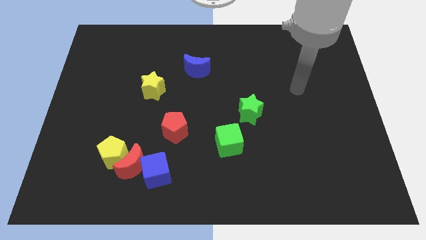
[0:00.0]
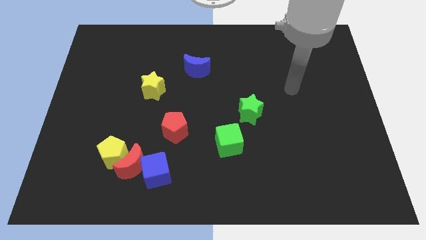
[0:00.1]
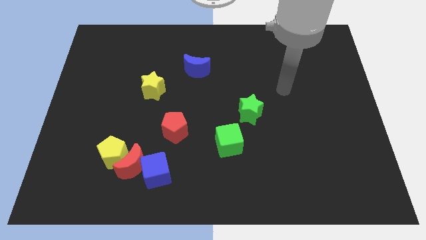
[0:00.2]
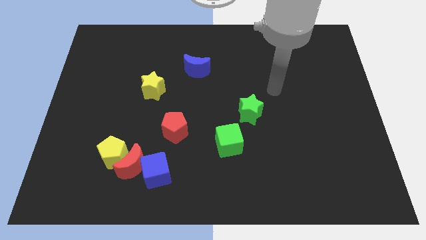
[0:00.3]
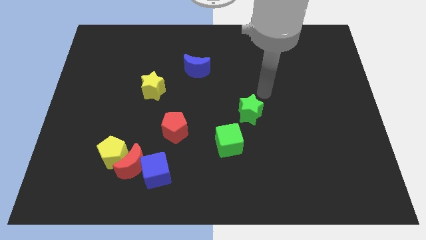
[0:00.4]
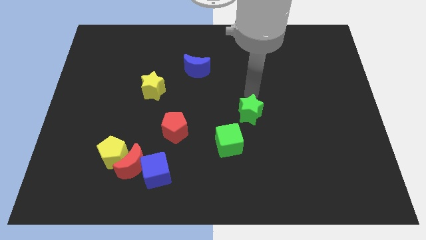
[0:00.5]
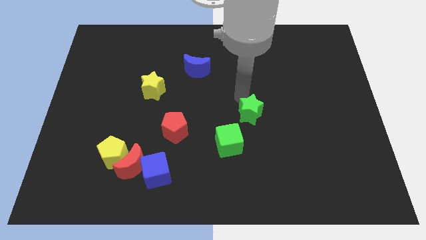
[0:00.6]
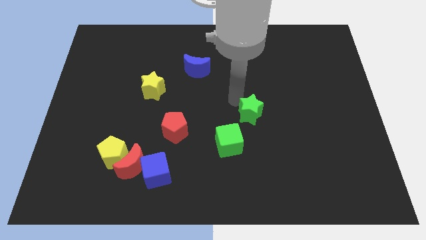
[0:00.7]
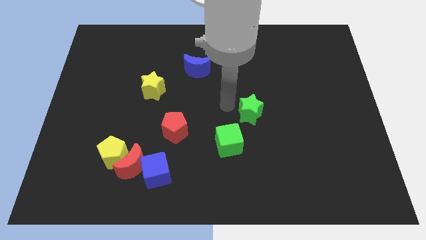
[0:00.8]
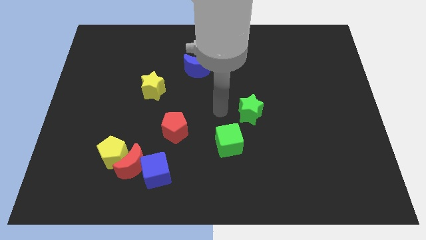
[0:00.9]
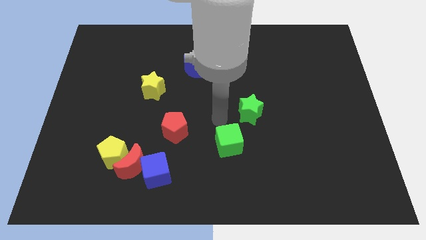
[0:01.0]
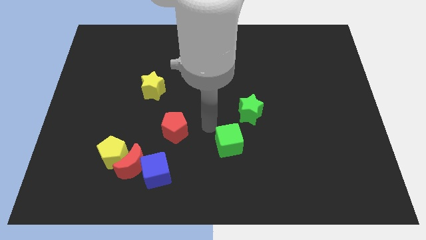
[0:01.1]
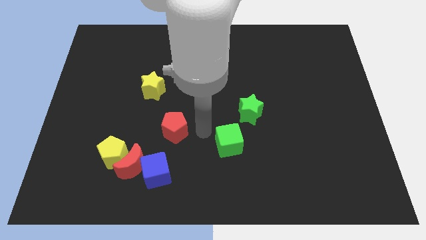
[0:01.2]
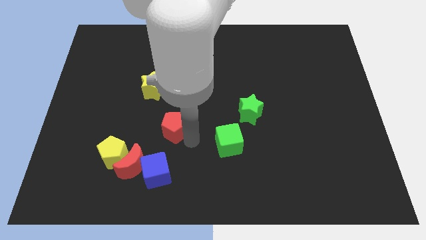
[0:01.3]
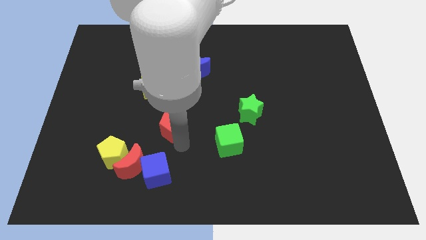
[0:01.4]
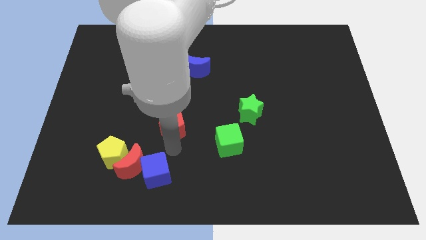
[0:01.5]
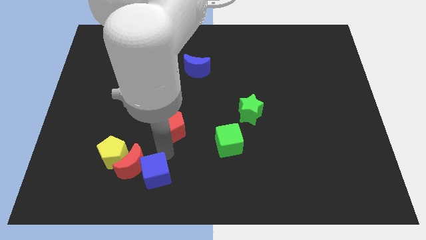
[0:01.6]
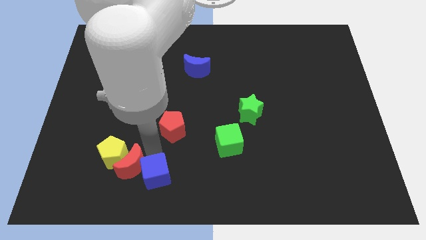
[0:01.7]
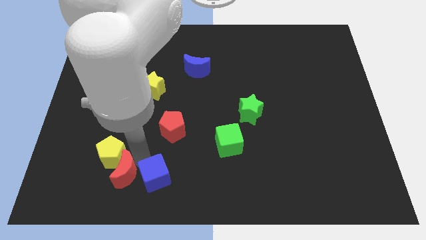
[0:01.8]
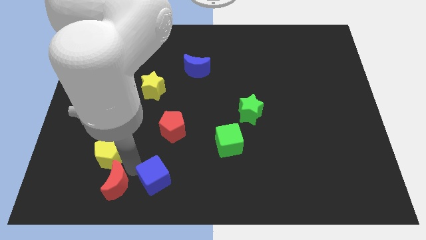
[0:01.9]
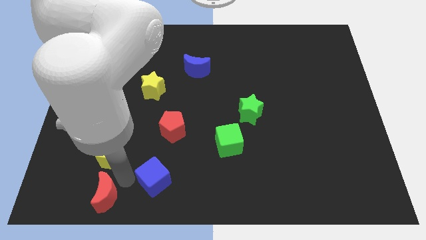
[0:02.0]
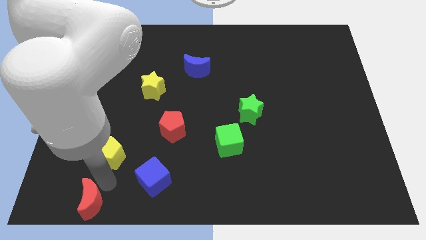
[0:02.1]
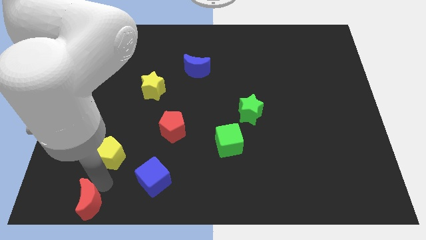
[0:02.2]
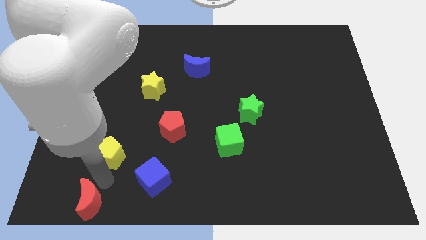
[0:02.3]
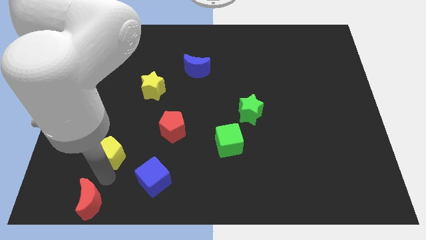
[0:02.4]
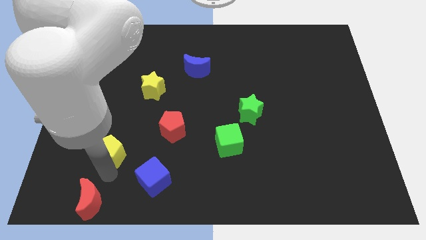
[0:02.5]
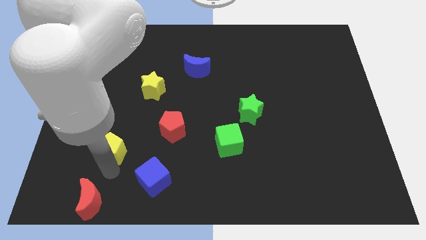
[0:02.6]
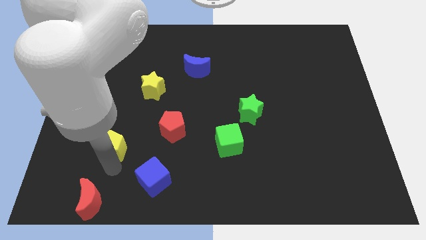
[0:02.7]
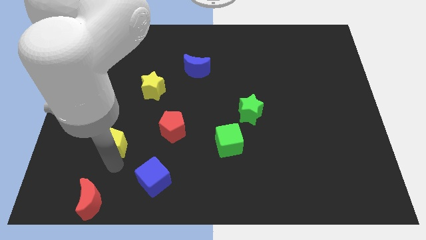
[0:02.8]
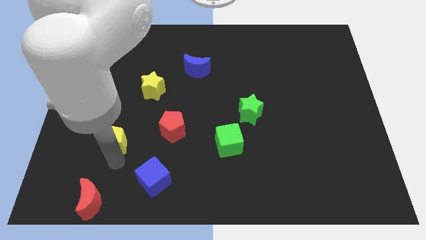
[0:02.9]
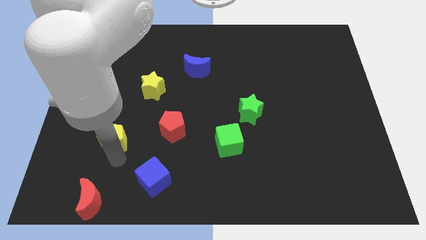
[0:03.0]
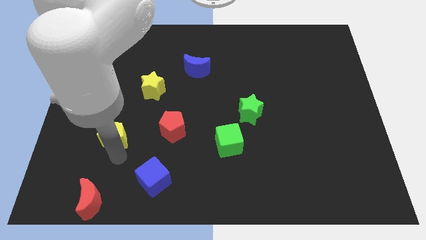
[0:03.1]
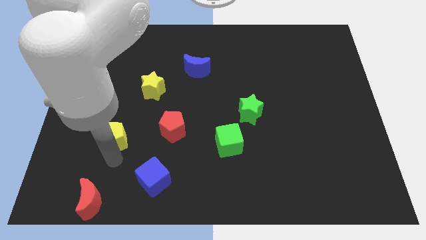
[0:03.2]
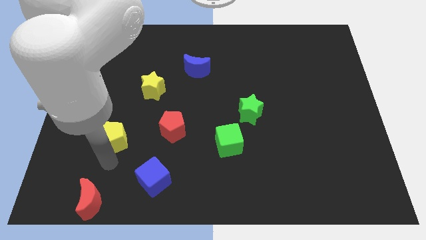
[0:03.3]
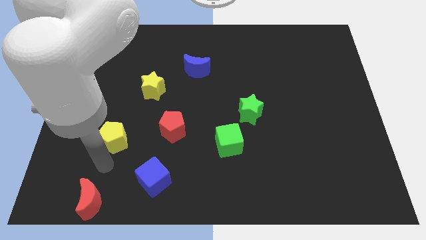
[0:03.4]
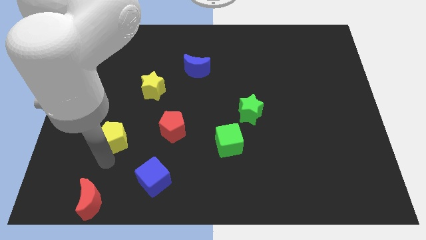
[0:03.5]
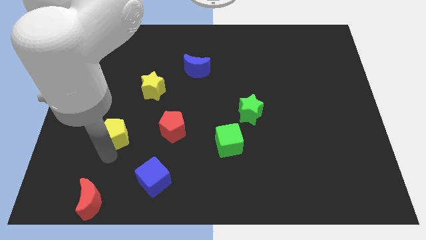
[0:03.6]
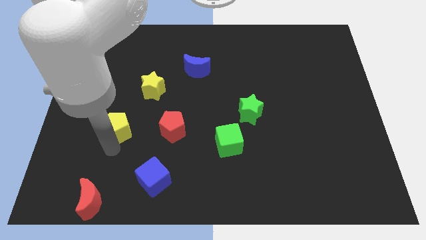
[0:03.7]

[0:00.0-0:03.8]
move the yellow pentagon a little up

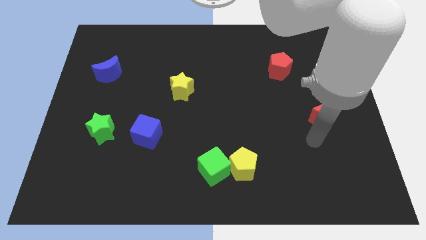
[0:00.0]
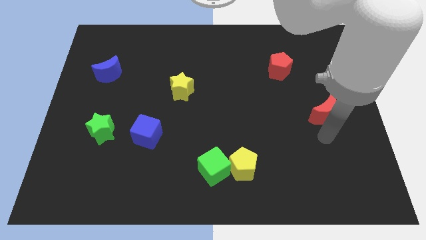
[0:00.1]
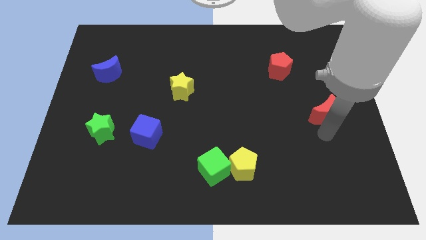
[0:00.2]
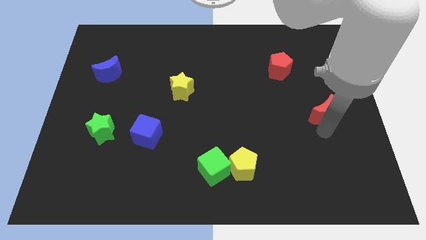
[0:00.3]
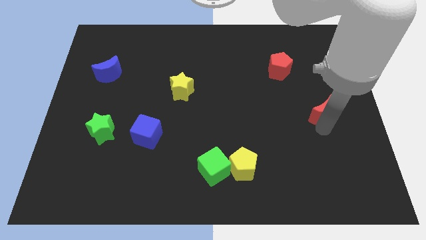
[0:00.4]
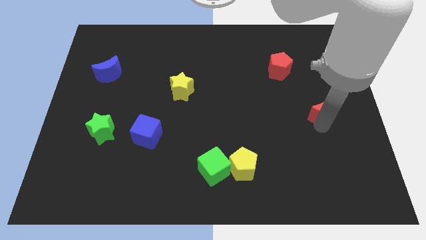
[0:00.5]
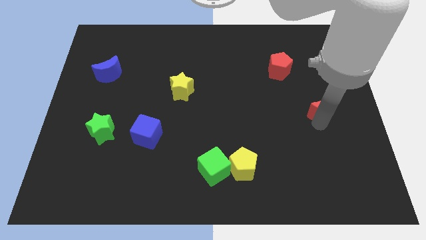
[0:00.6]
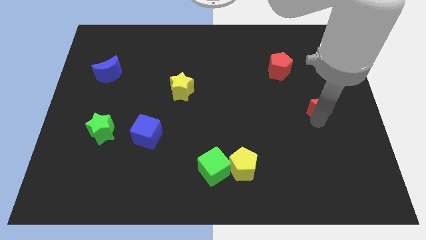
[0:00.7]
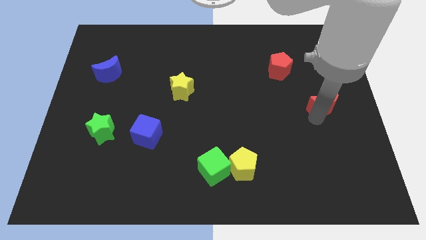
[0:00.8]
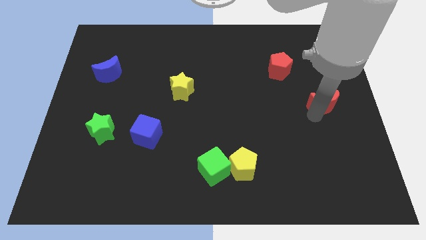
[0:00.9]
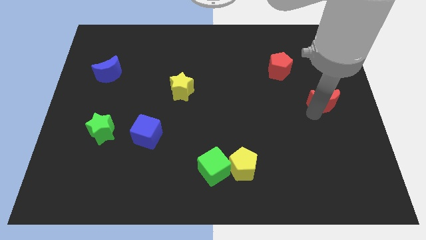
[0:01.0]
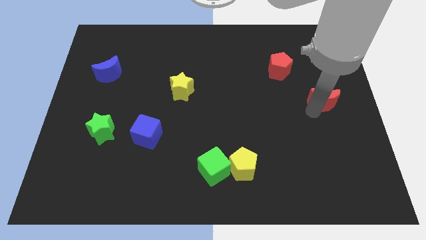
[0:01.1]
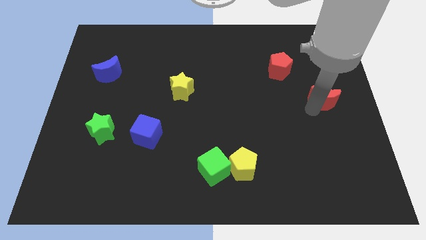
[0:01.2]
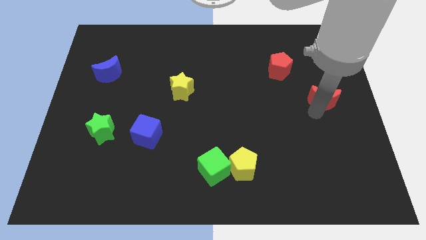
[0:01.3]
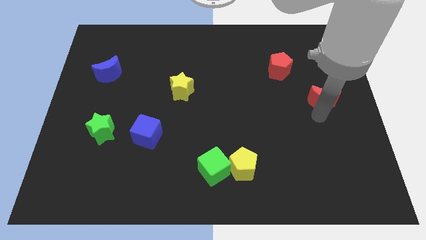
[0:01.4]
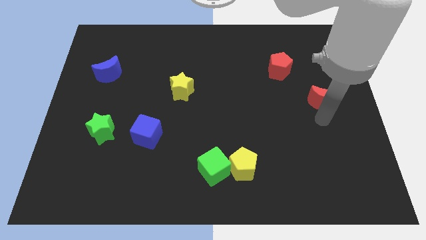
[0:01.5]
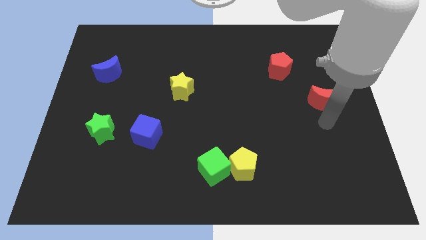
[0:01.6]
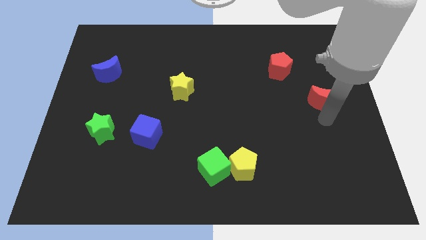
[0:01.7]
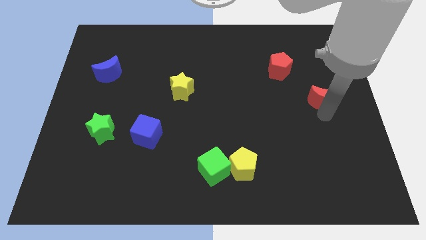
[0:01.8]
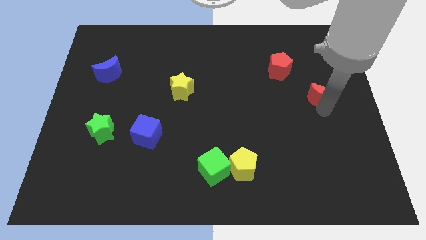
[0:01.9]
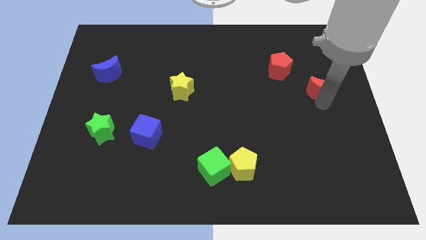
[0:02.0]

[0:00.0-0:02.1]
slightly slide the red moon up

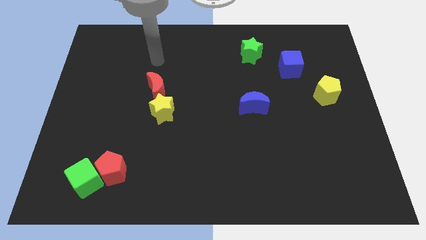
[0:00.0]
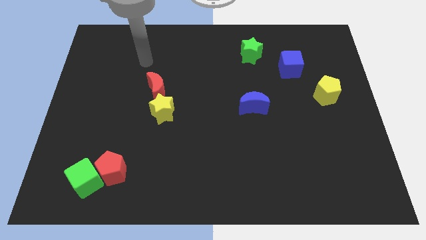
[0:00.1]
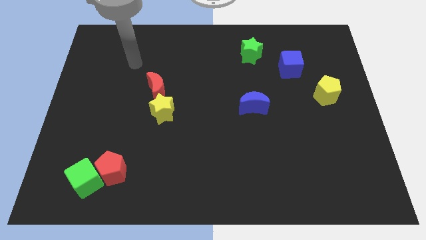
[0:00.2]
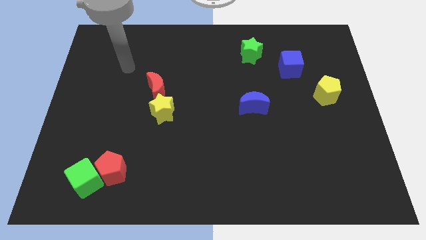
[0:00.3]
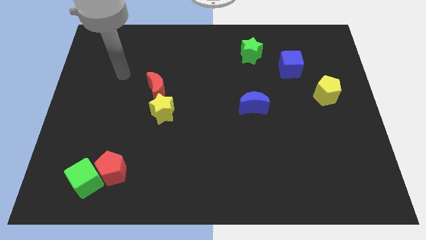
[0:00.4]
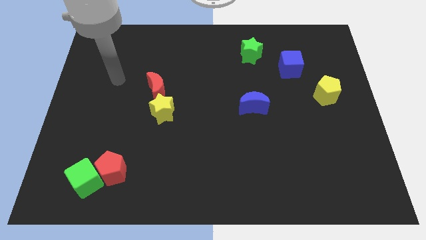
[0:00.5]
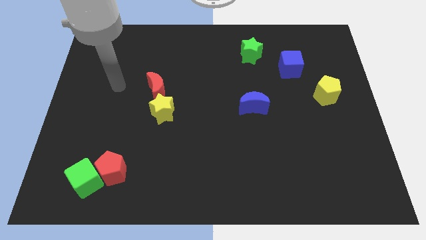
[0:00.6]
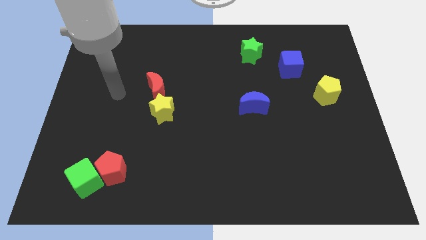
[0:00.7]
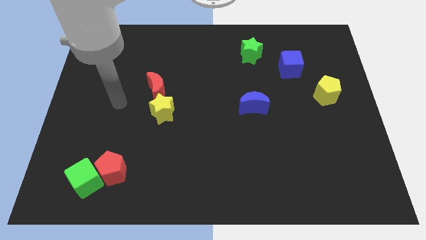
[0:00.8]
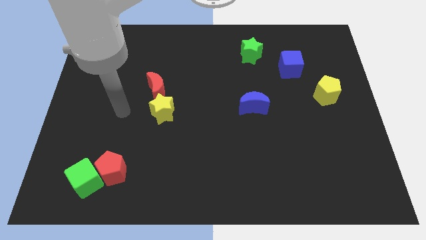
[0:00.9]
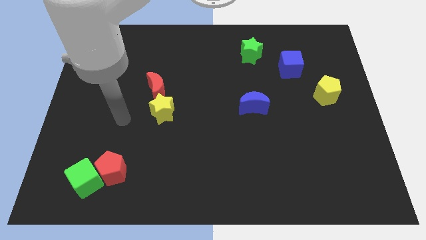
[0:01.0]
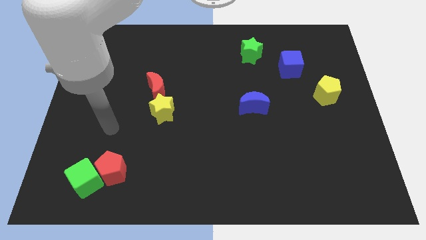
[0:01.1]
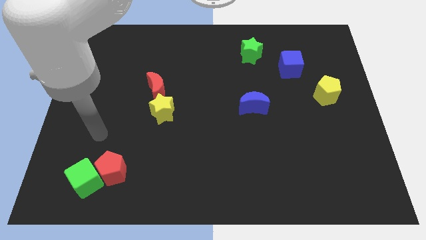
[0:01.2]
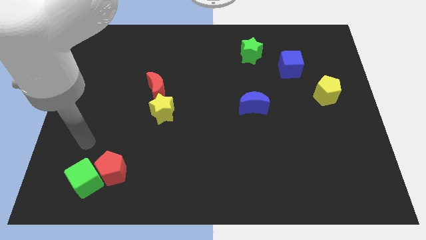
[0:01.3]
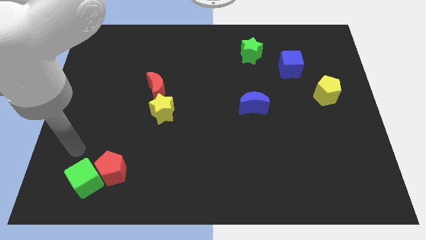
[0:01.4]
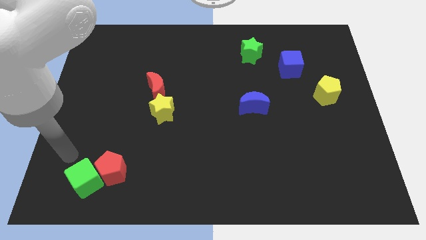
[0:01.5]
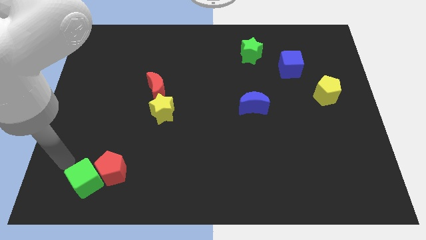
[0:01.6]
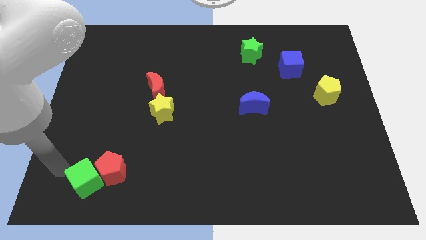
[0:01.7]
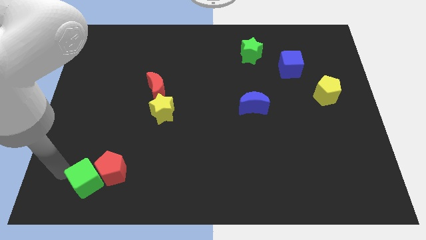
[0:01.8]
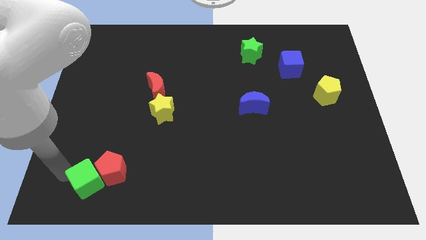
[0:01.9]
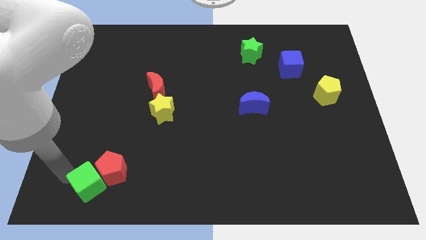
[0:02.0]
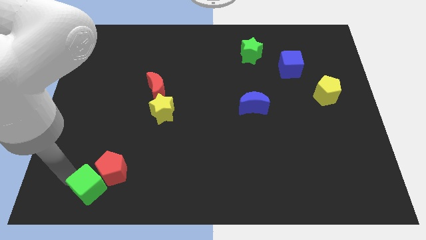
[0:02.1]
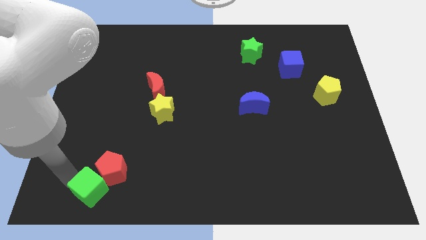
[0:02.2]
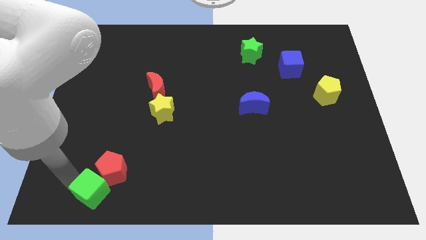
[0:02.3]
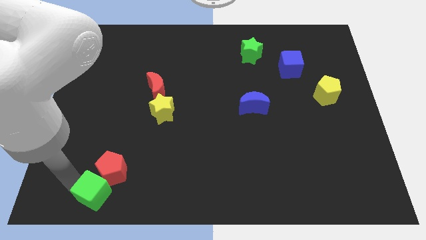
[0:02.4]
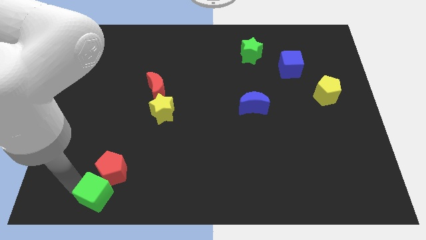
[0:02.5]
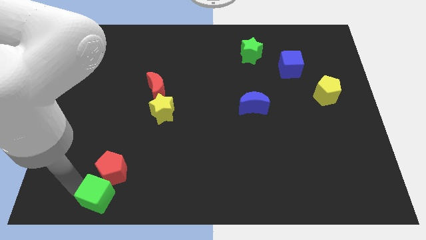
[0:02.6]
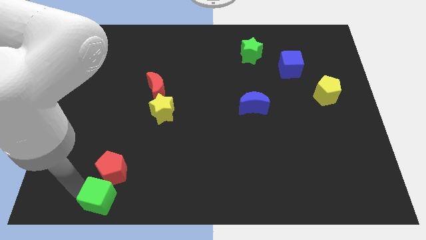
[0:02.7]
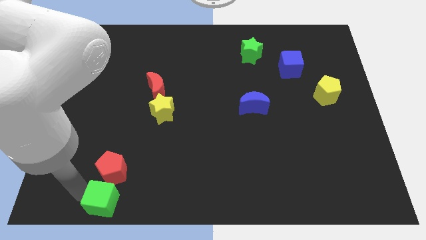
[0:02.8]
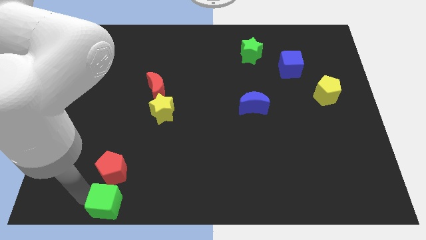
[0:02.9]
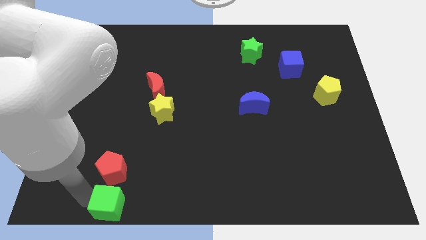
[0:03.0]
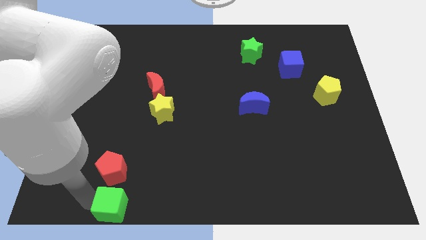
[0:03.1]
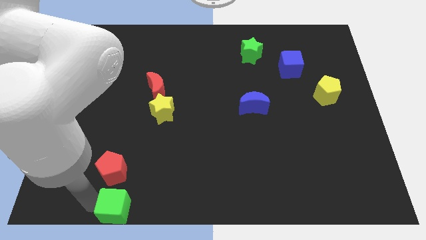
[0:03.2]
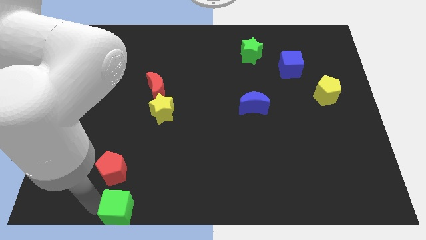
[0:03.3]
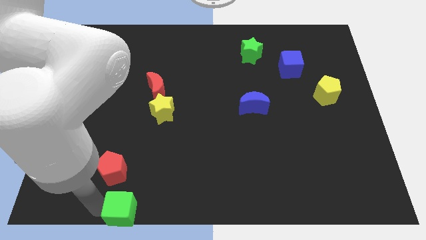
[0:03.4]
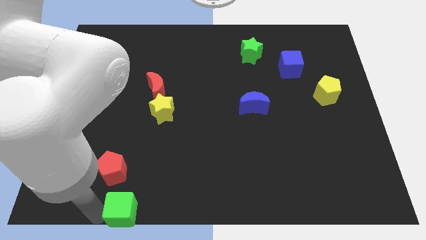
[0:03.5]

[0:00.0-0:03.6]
slightly push the green cube to the right
